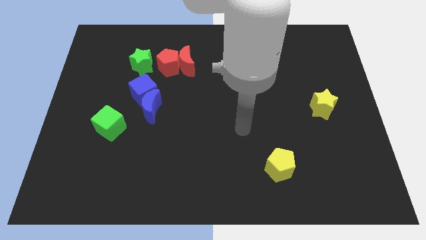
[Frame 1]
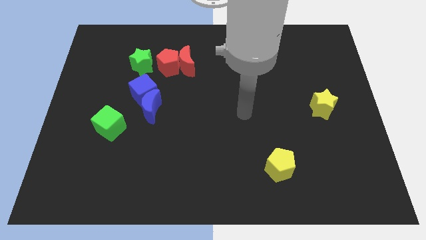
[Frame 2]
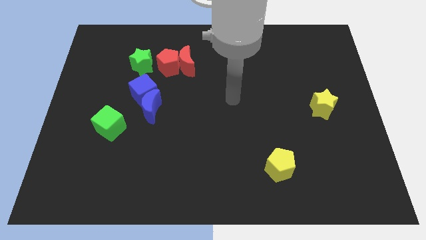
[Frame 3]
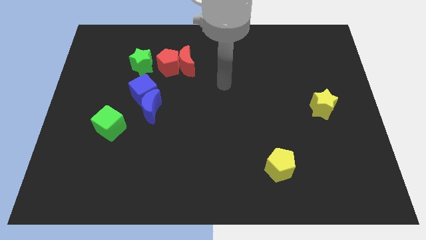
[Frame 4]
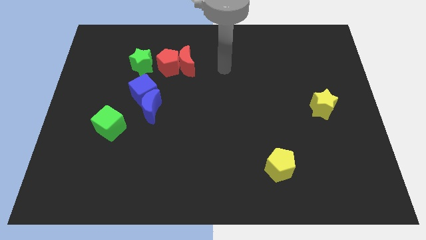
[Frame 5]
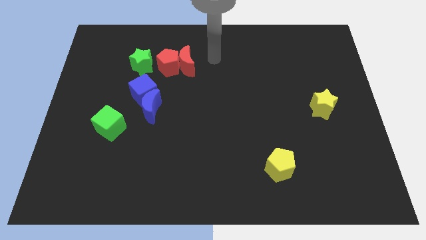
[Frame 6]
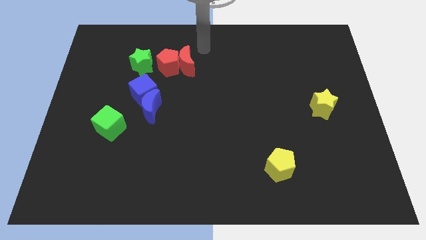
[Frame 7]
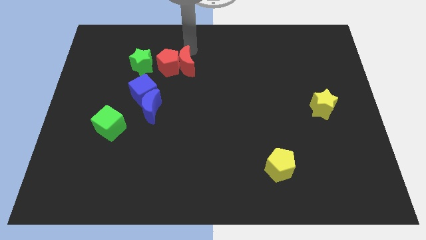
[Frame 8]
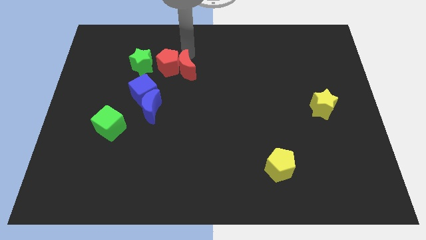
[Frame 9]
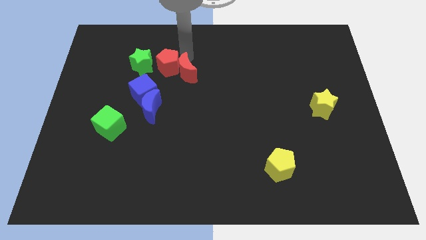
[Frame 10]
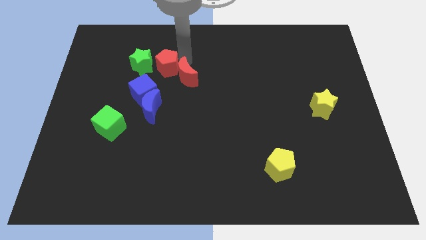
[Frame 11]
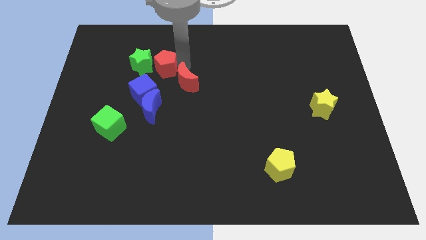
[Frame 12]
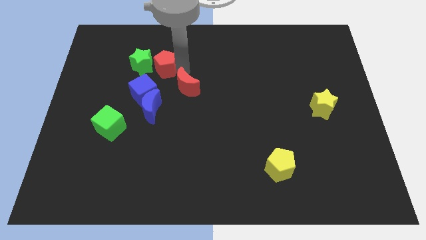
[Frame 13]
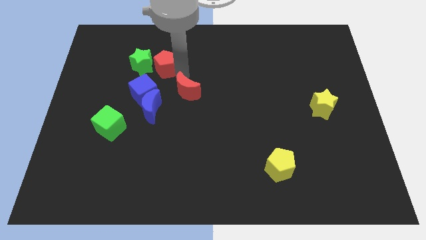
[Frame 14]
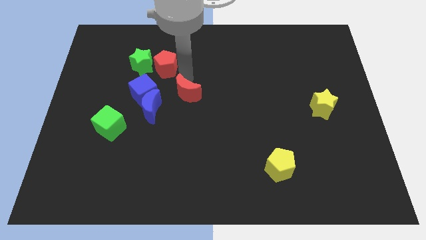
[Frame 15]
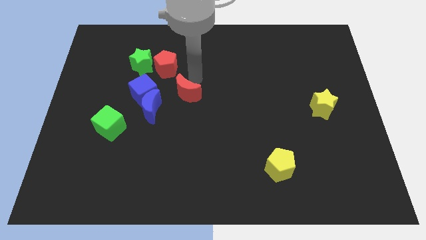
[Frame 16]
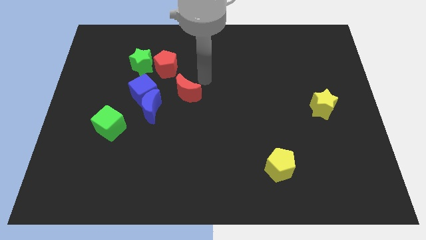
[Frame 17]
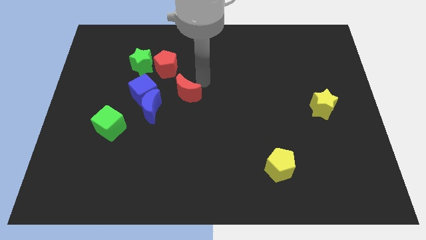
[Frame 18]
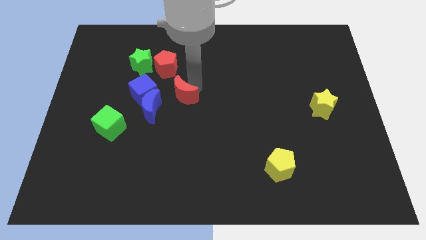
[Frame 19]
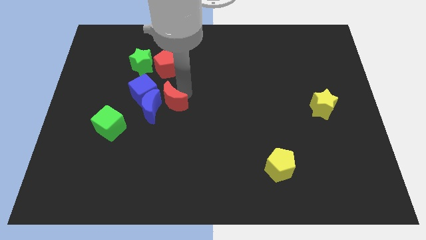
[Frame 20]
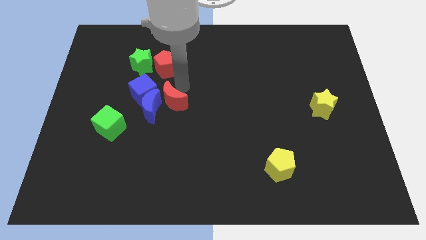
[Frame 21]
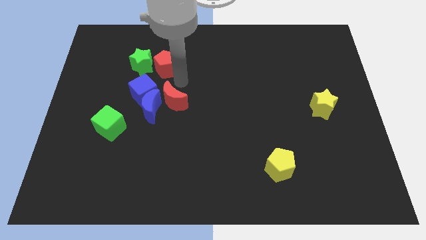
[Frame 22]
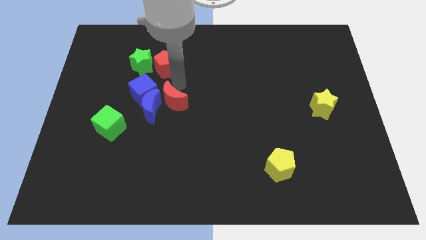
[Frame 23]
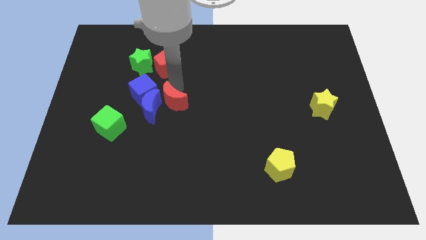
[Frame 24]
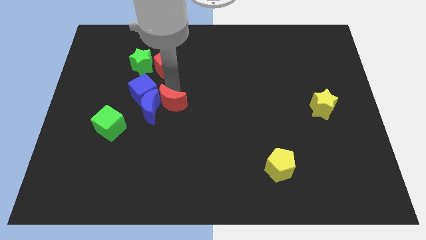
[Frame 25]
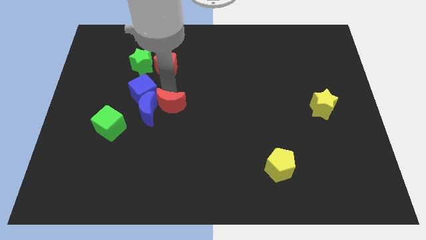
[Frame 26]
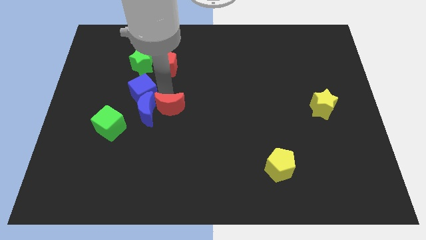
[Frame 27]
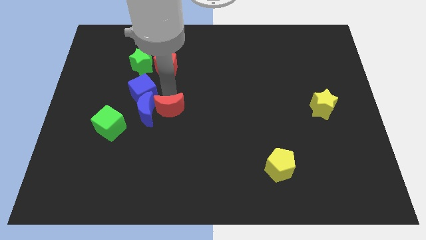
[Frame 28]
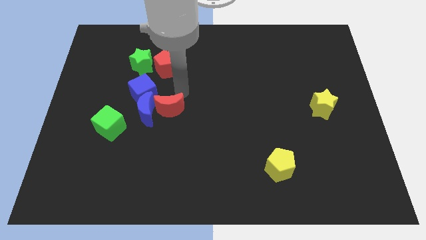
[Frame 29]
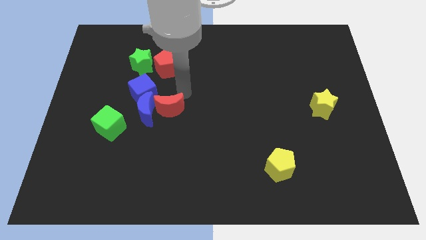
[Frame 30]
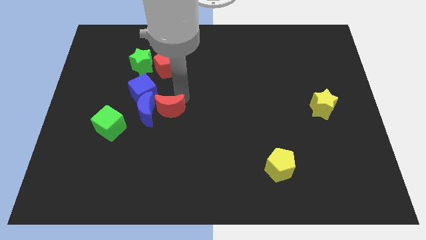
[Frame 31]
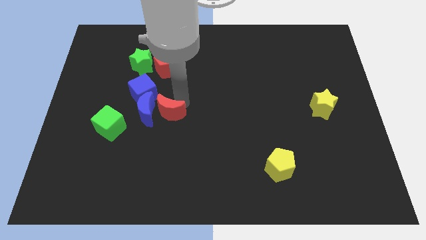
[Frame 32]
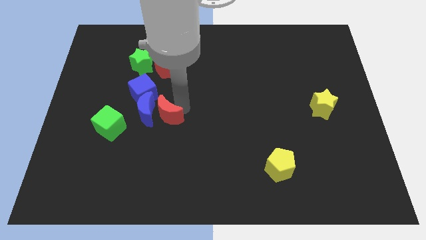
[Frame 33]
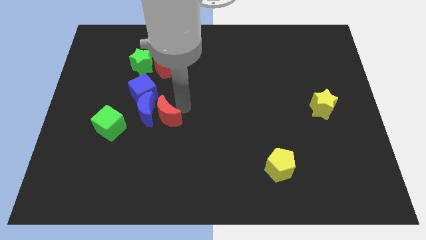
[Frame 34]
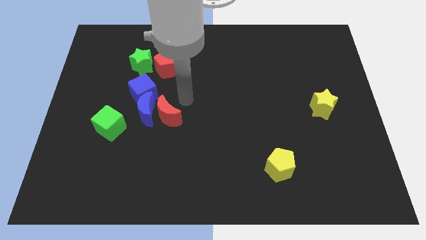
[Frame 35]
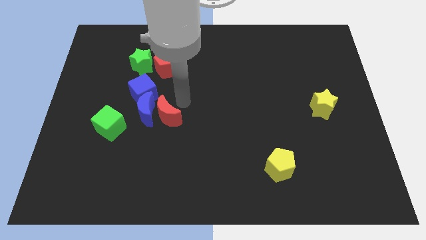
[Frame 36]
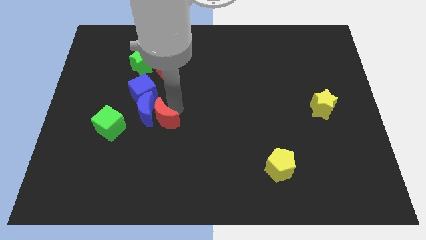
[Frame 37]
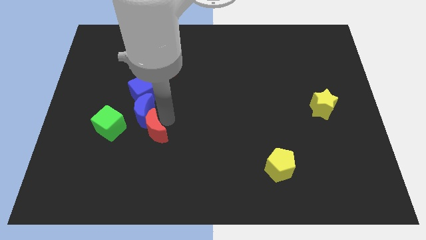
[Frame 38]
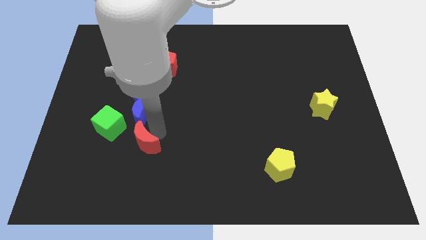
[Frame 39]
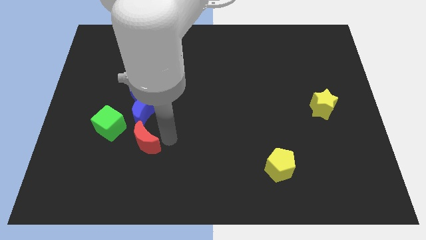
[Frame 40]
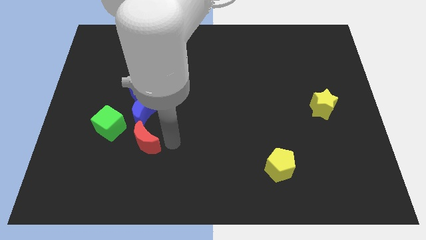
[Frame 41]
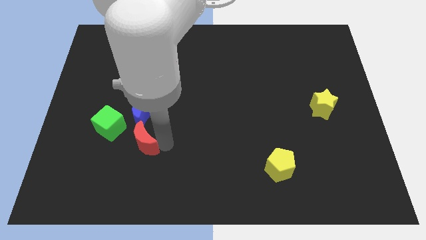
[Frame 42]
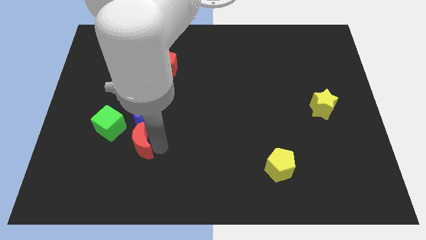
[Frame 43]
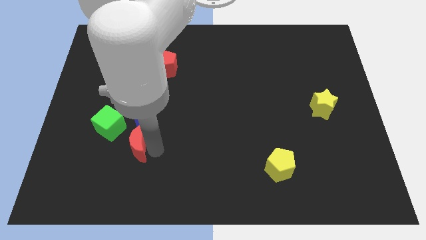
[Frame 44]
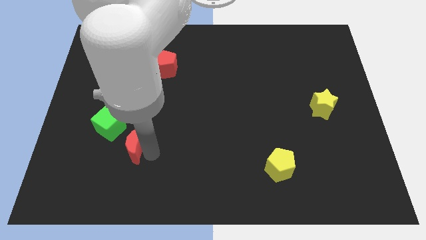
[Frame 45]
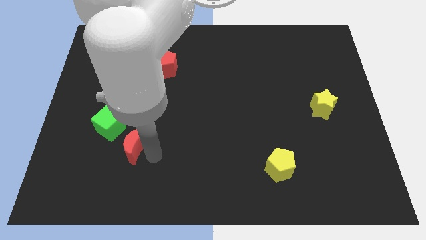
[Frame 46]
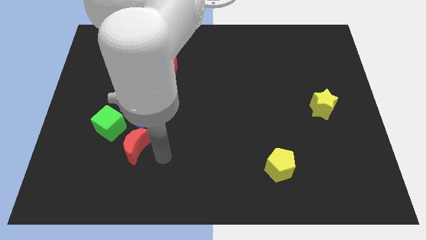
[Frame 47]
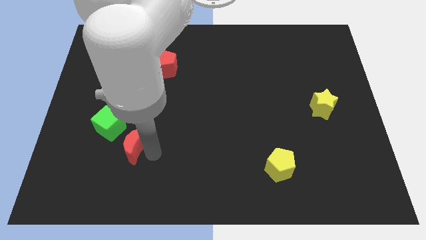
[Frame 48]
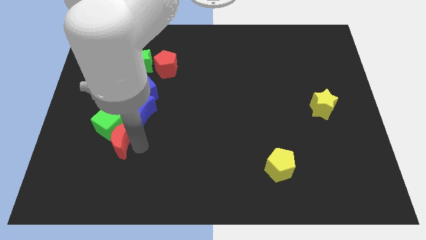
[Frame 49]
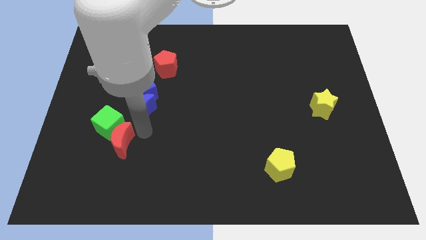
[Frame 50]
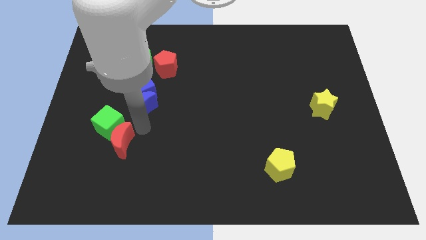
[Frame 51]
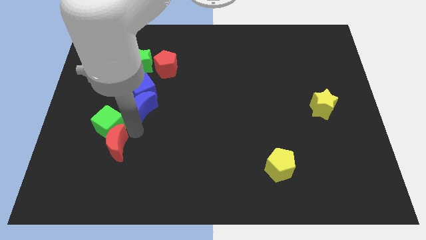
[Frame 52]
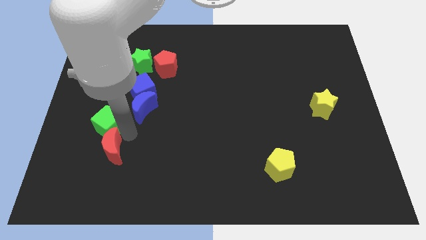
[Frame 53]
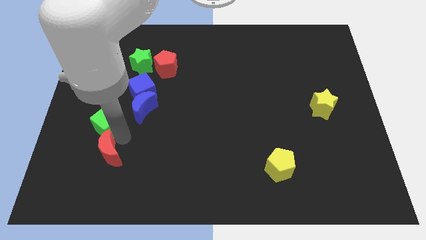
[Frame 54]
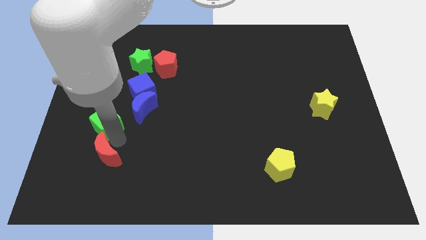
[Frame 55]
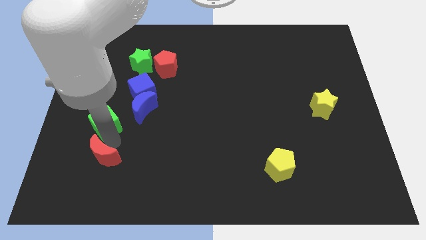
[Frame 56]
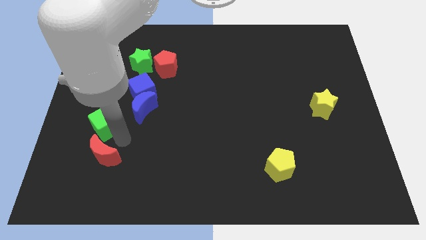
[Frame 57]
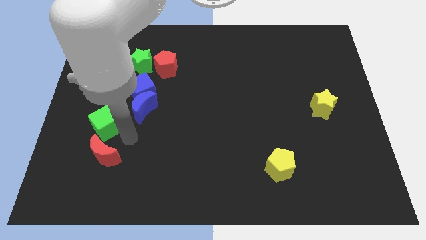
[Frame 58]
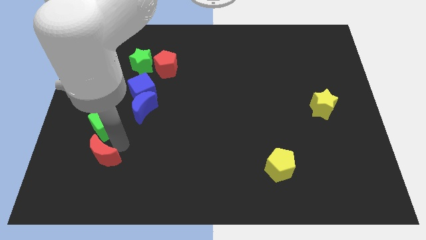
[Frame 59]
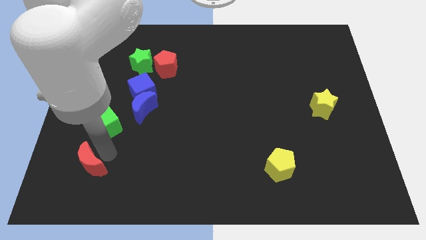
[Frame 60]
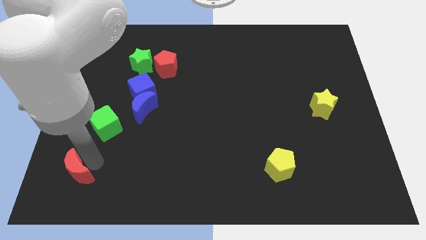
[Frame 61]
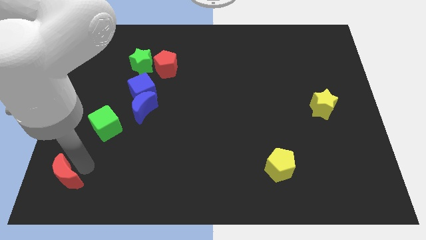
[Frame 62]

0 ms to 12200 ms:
slide the red moon to the bottom left of the board

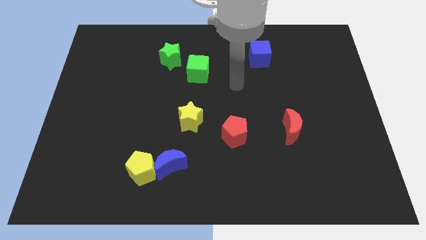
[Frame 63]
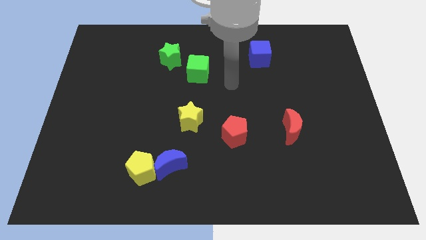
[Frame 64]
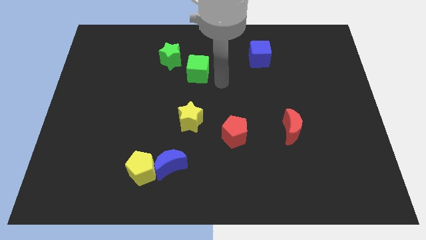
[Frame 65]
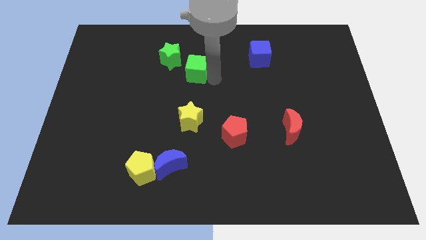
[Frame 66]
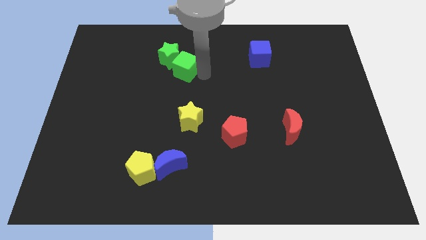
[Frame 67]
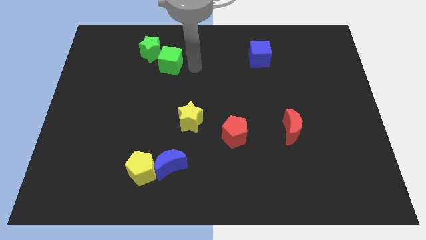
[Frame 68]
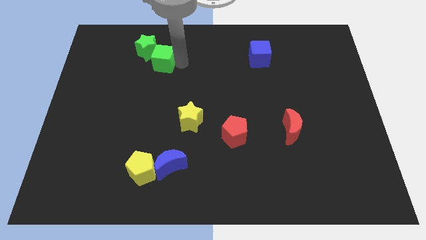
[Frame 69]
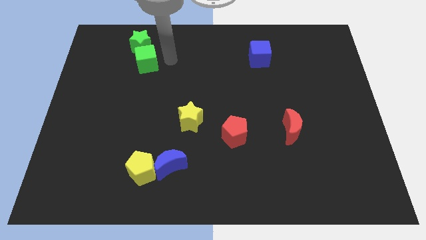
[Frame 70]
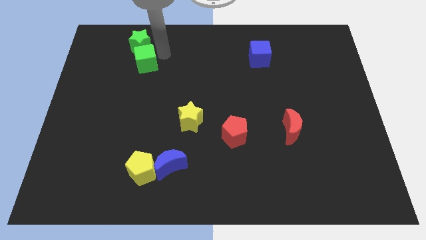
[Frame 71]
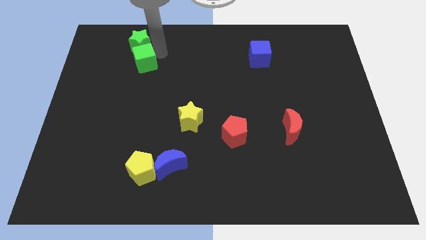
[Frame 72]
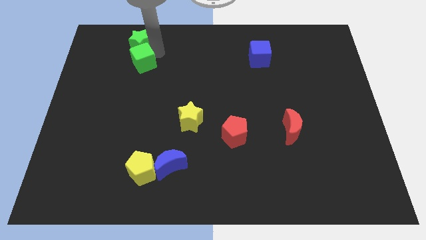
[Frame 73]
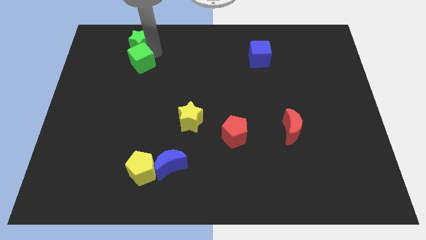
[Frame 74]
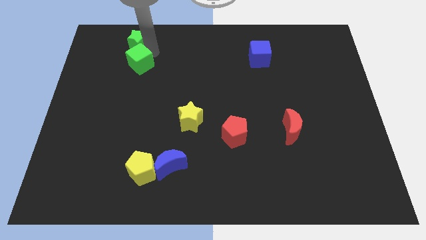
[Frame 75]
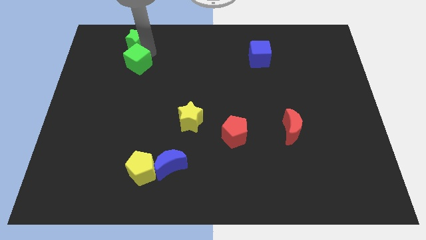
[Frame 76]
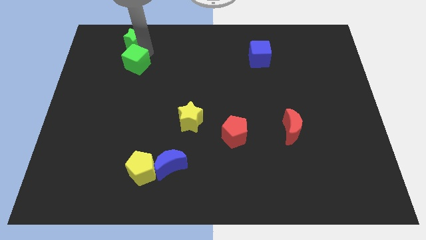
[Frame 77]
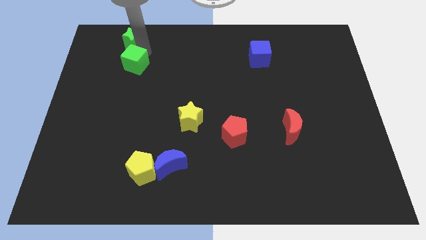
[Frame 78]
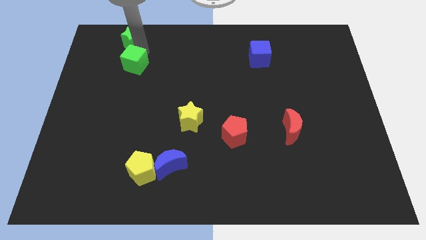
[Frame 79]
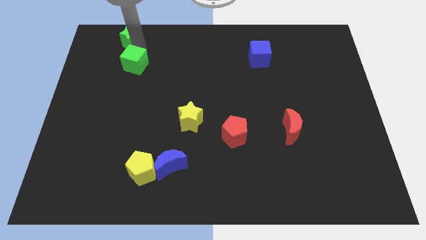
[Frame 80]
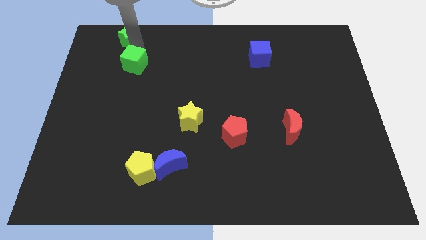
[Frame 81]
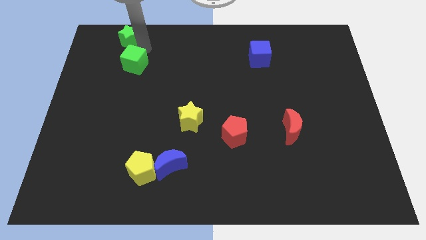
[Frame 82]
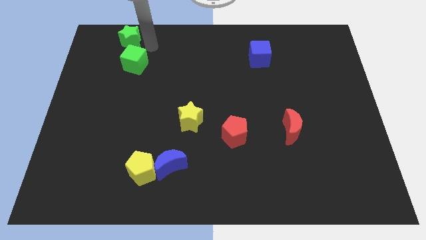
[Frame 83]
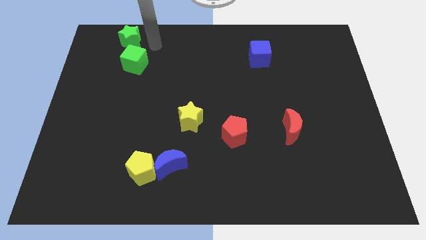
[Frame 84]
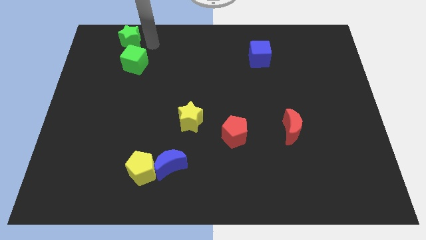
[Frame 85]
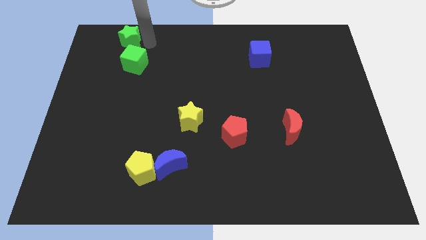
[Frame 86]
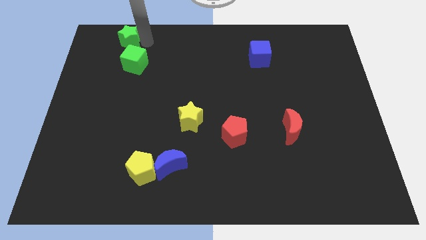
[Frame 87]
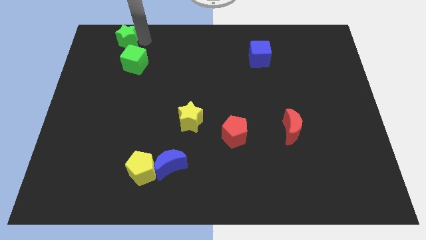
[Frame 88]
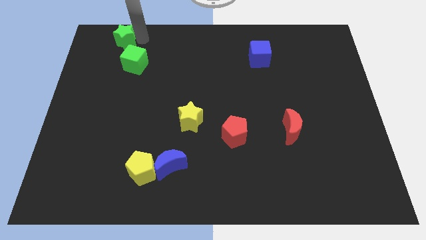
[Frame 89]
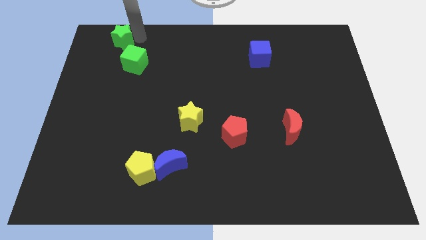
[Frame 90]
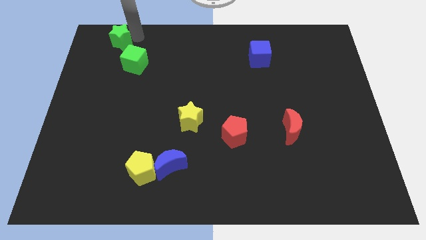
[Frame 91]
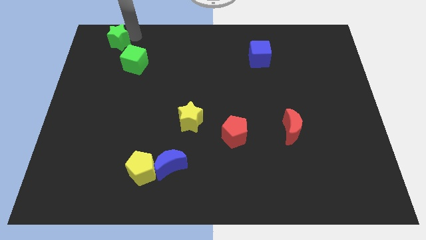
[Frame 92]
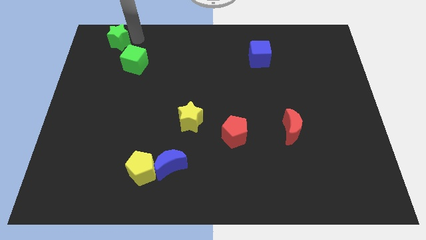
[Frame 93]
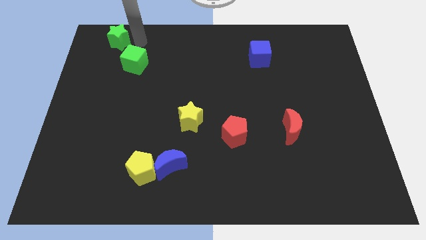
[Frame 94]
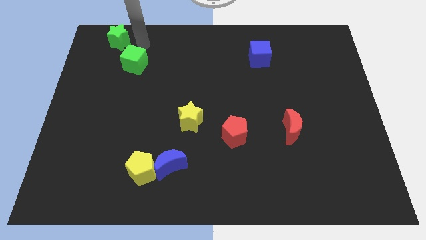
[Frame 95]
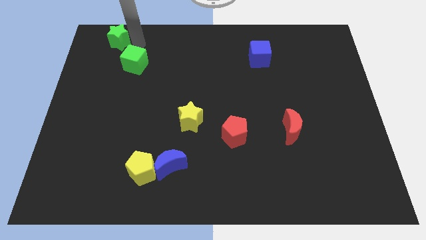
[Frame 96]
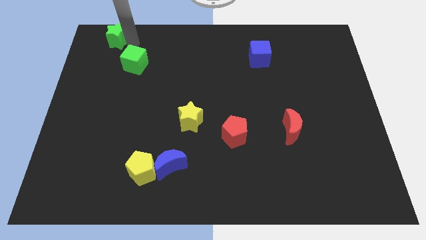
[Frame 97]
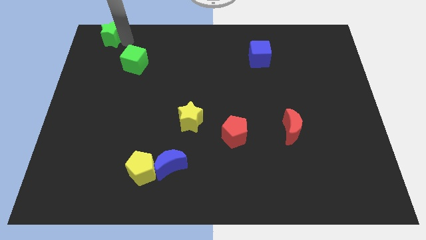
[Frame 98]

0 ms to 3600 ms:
move the green star to the upper left corner
